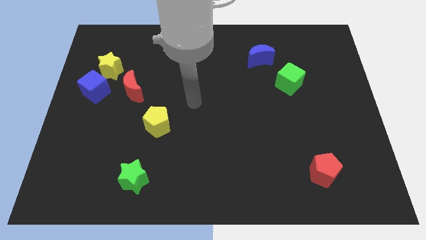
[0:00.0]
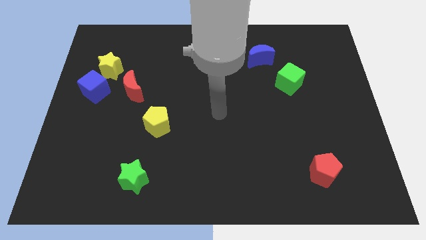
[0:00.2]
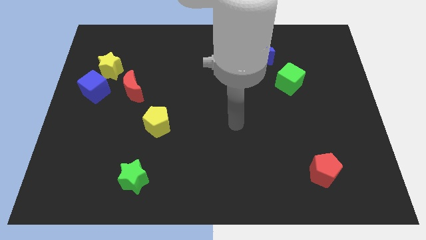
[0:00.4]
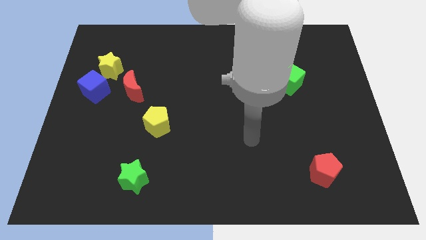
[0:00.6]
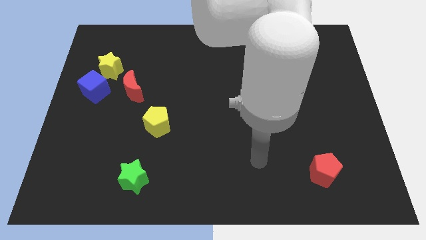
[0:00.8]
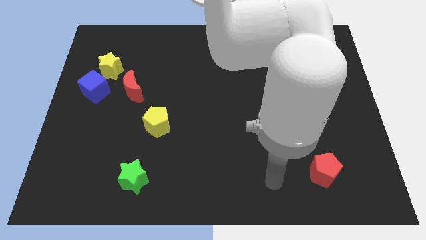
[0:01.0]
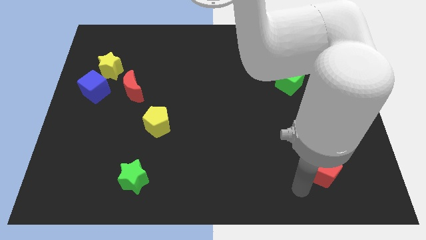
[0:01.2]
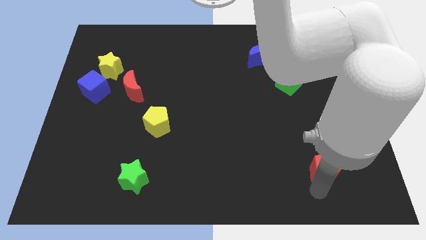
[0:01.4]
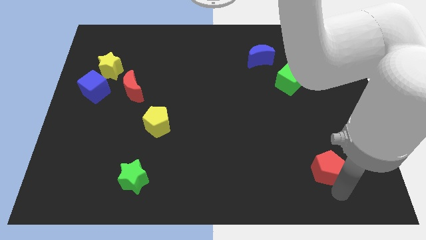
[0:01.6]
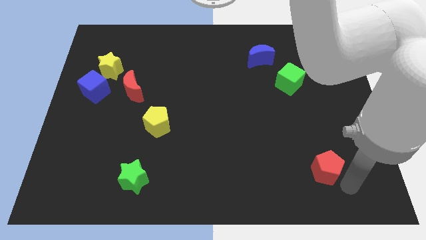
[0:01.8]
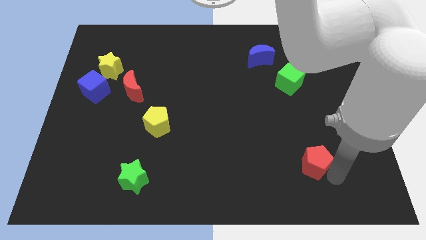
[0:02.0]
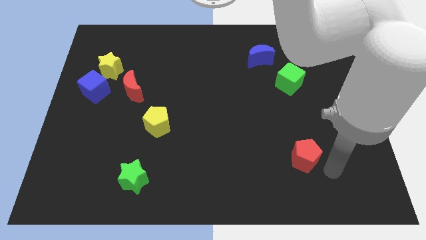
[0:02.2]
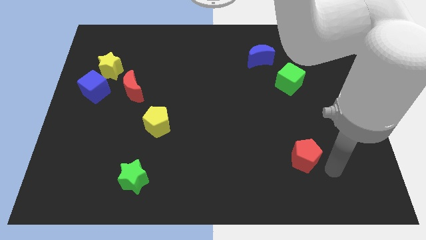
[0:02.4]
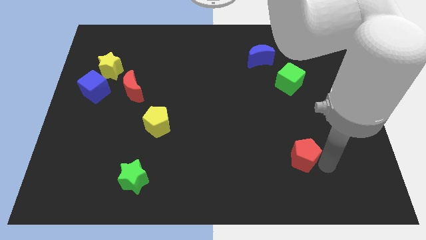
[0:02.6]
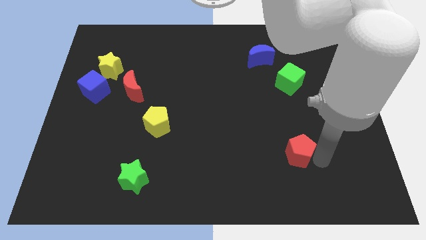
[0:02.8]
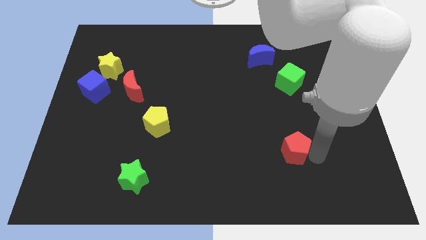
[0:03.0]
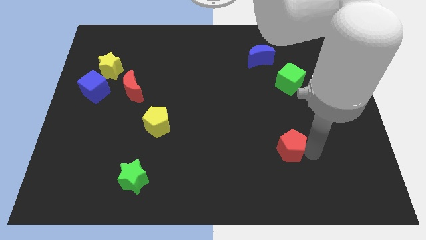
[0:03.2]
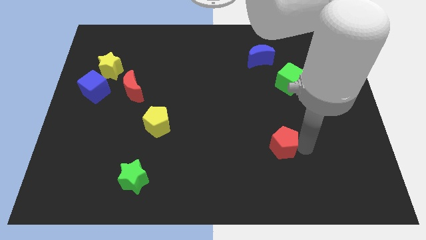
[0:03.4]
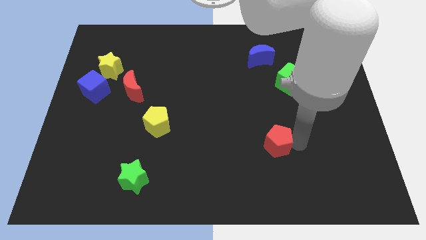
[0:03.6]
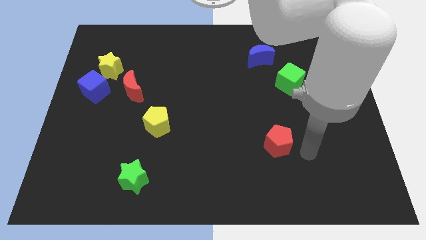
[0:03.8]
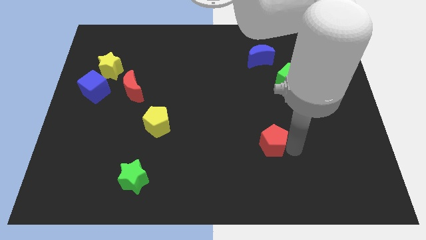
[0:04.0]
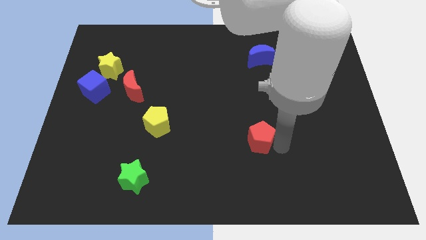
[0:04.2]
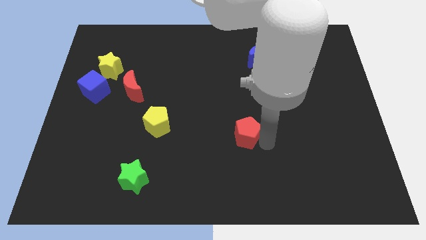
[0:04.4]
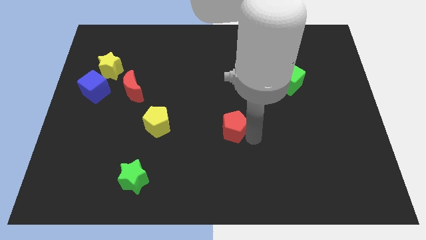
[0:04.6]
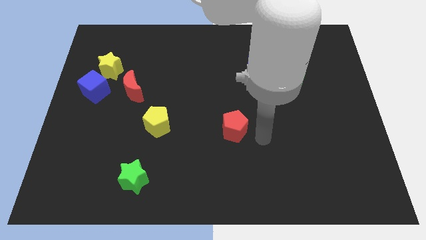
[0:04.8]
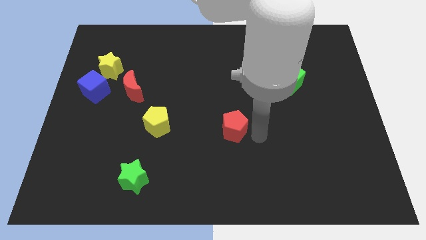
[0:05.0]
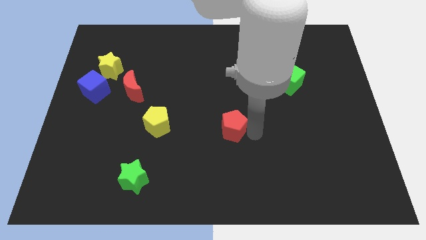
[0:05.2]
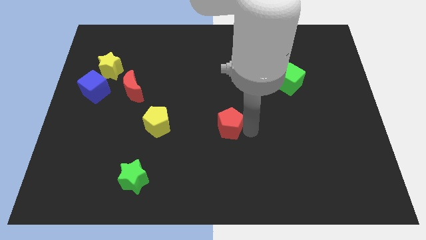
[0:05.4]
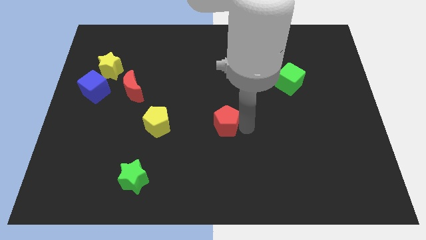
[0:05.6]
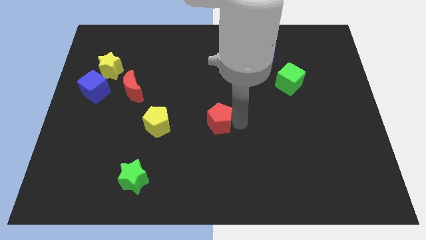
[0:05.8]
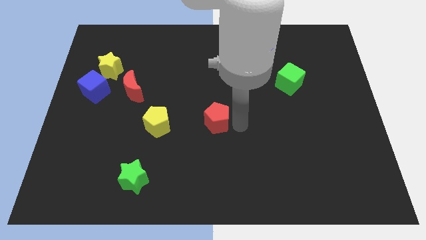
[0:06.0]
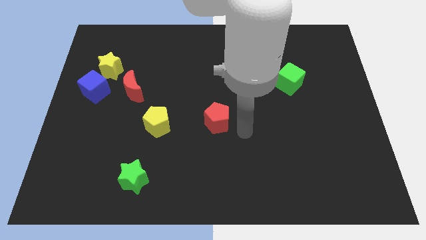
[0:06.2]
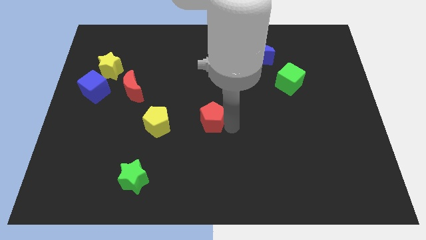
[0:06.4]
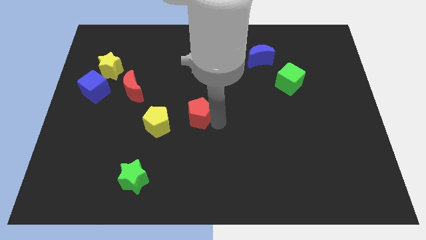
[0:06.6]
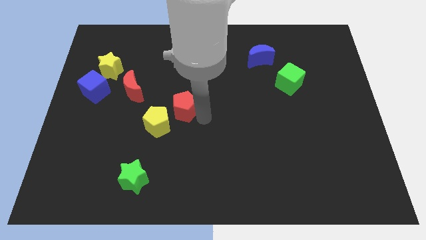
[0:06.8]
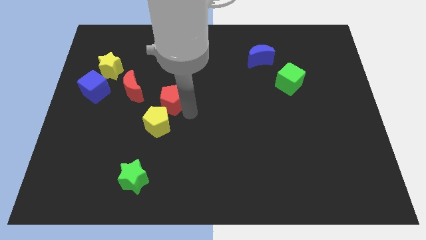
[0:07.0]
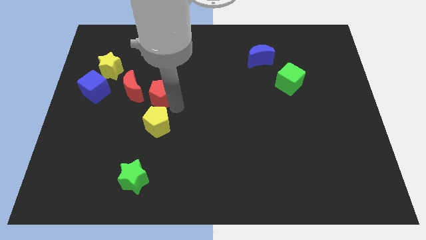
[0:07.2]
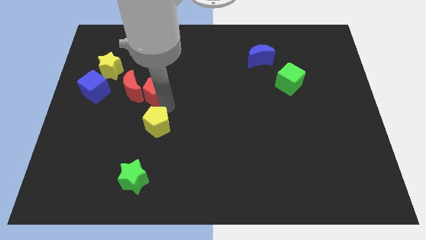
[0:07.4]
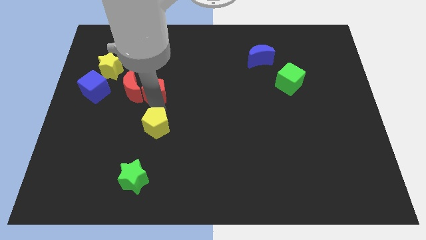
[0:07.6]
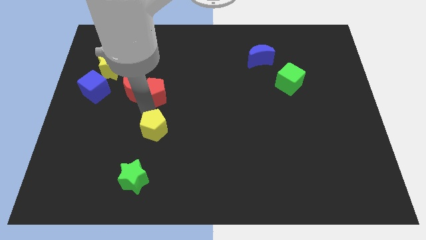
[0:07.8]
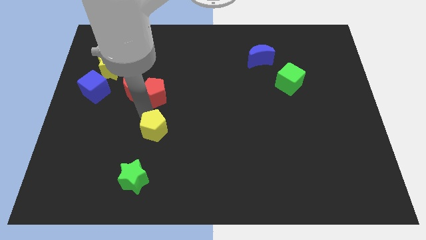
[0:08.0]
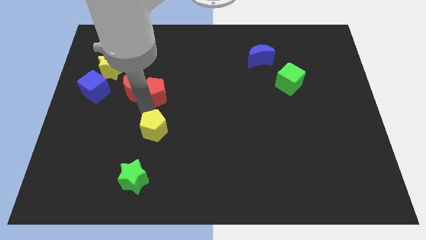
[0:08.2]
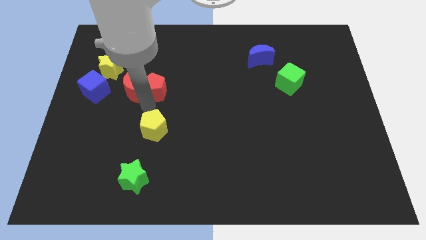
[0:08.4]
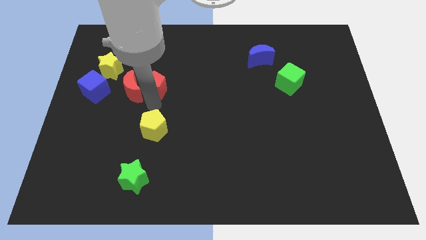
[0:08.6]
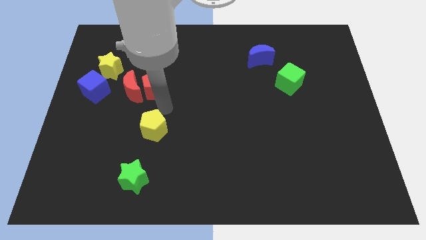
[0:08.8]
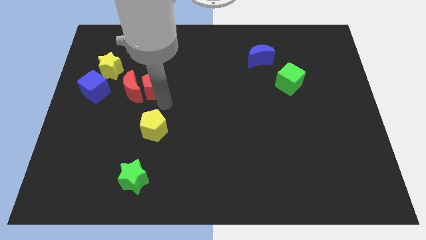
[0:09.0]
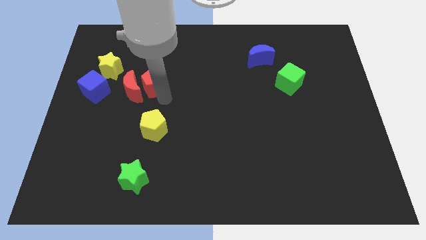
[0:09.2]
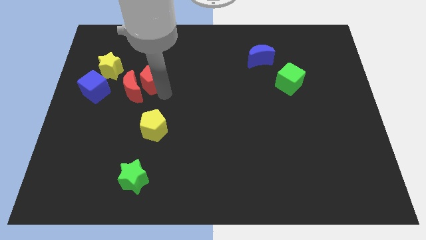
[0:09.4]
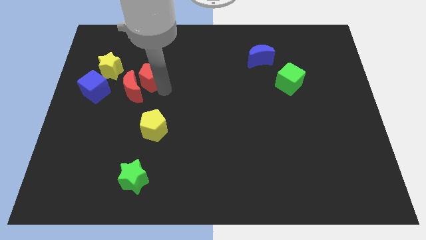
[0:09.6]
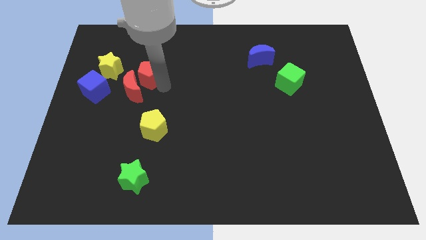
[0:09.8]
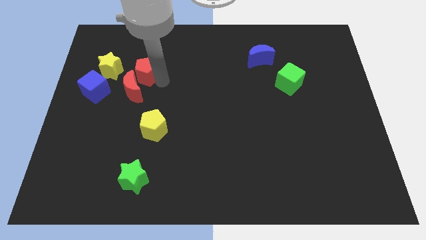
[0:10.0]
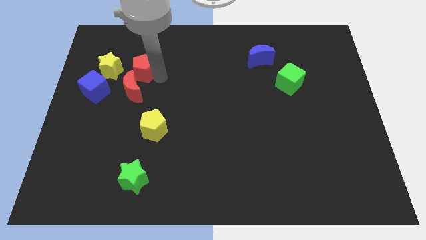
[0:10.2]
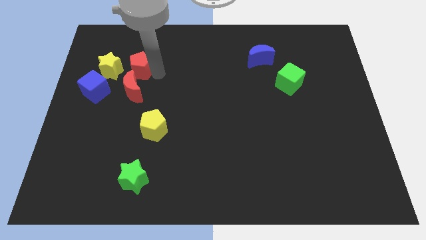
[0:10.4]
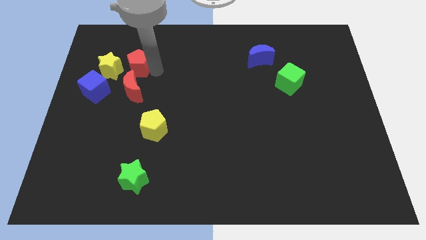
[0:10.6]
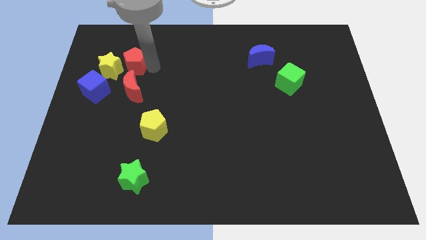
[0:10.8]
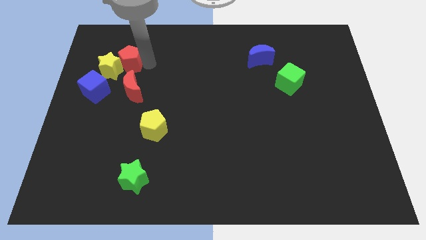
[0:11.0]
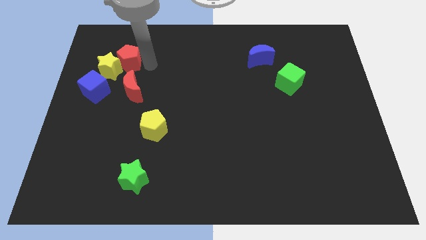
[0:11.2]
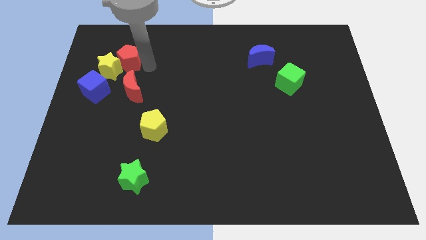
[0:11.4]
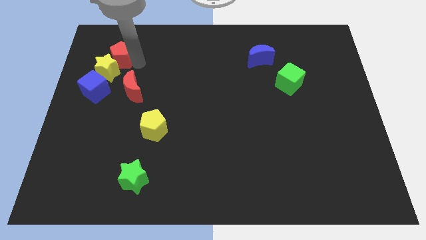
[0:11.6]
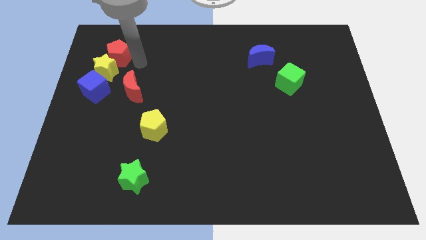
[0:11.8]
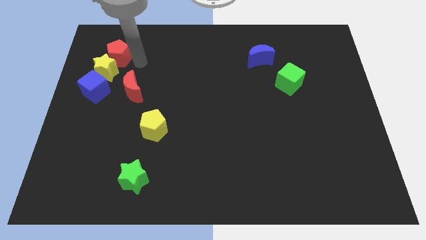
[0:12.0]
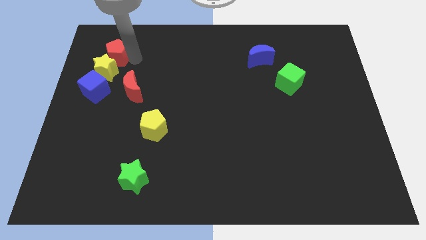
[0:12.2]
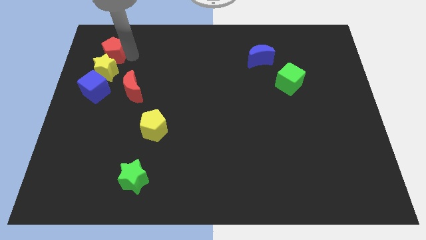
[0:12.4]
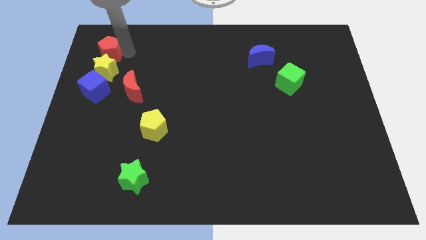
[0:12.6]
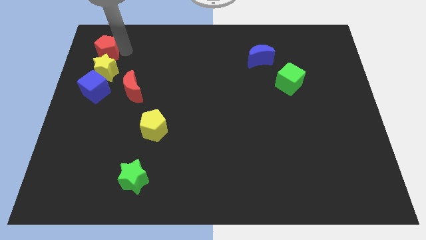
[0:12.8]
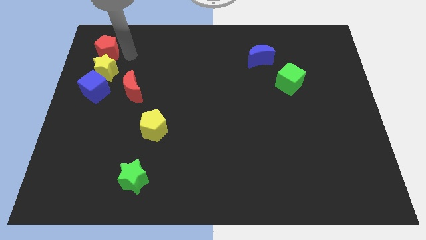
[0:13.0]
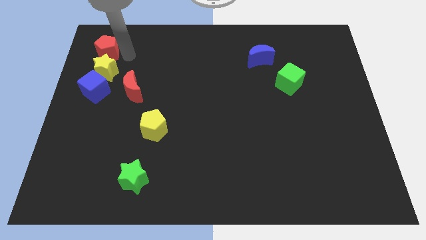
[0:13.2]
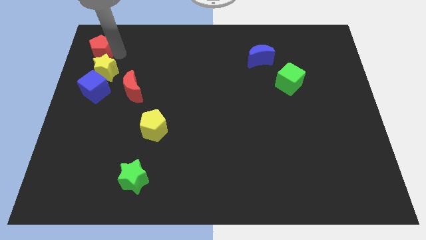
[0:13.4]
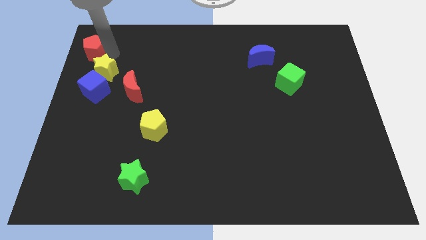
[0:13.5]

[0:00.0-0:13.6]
move the red pentagon to the top left corner
